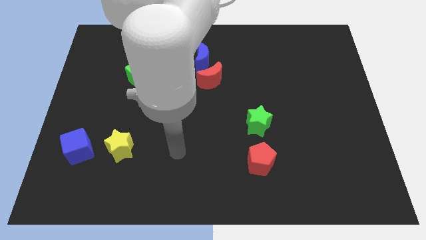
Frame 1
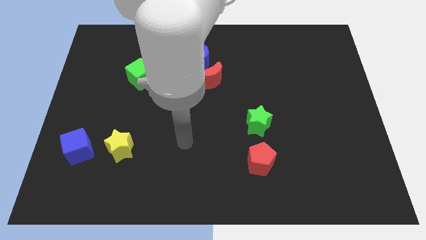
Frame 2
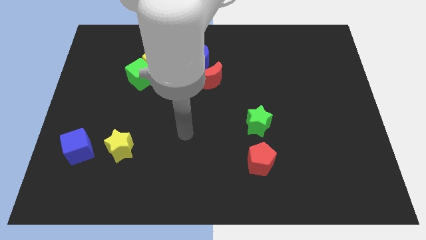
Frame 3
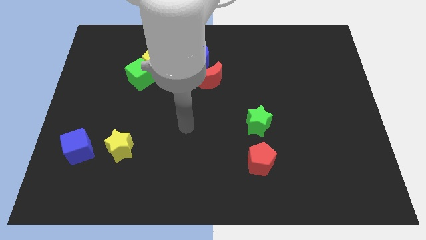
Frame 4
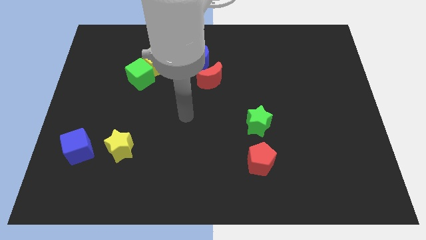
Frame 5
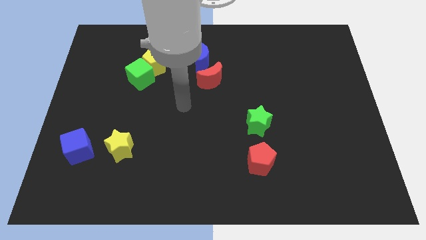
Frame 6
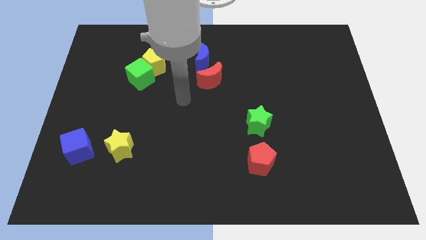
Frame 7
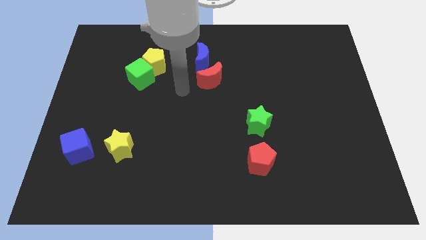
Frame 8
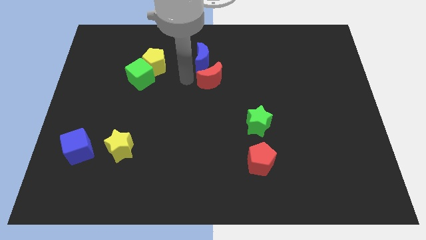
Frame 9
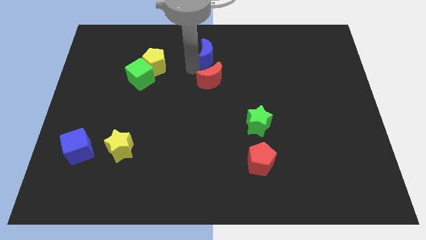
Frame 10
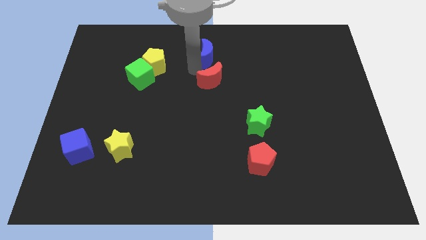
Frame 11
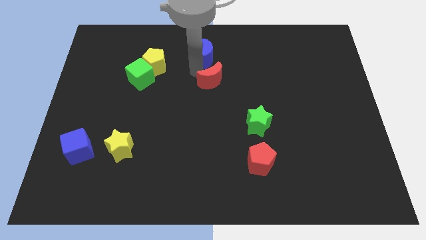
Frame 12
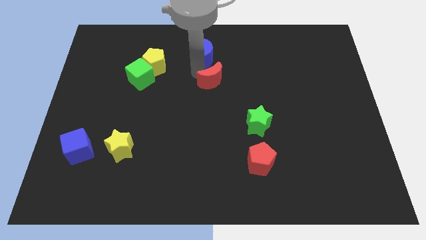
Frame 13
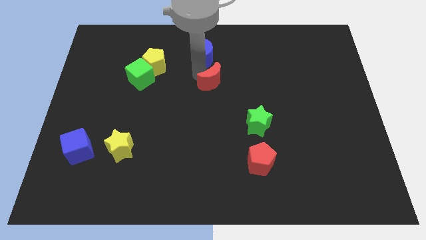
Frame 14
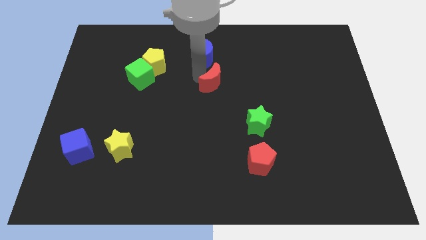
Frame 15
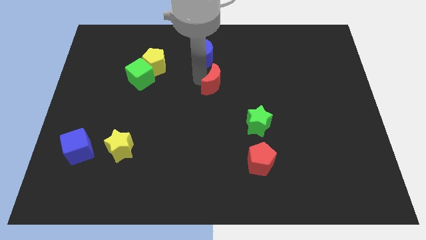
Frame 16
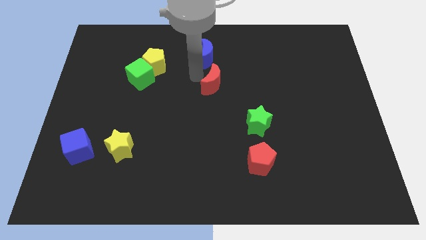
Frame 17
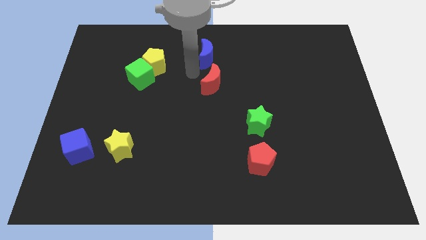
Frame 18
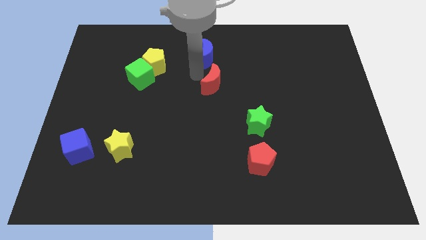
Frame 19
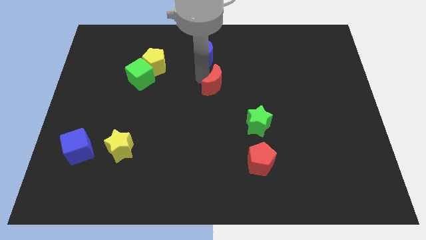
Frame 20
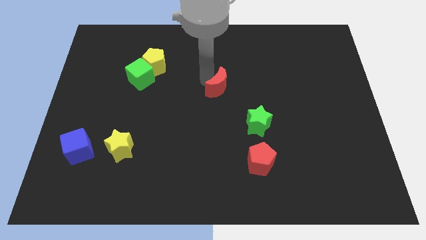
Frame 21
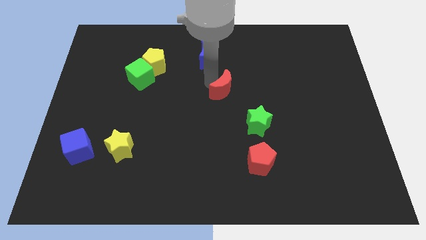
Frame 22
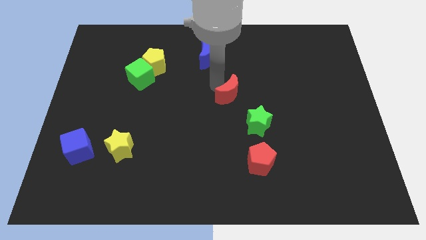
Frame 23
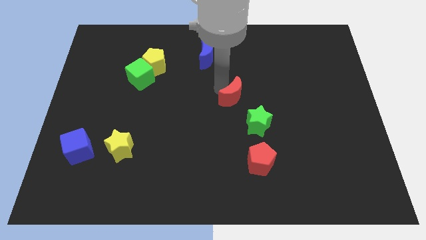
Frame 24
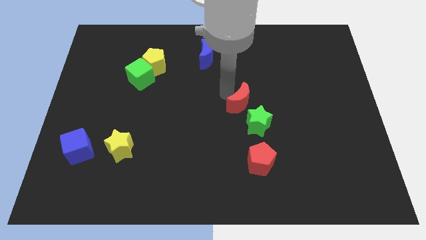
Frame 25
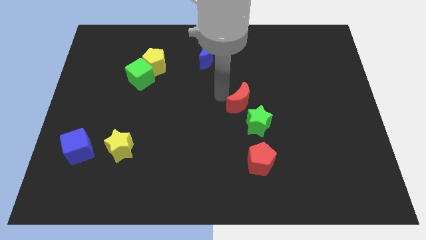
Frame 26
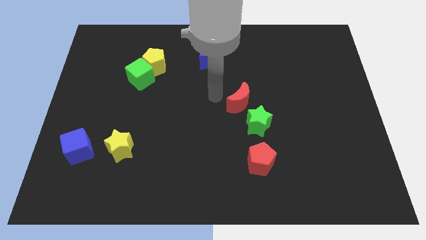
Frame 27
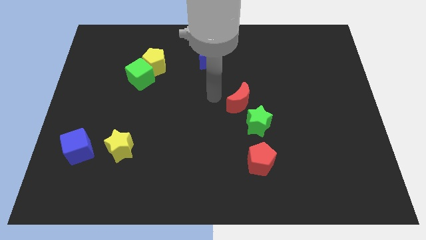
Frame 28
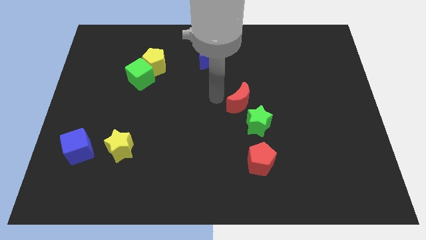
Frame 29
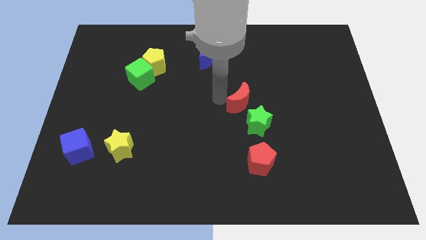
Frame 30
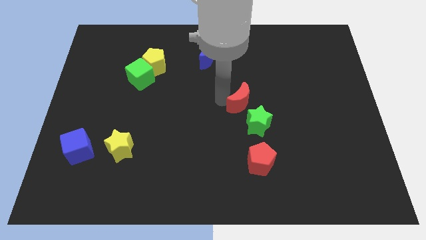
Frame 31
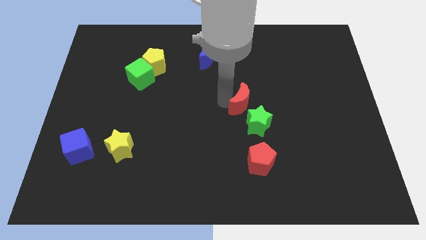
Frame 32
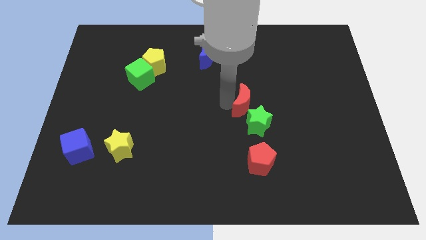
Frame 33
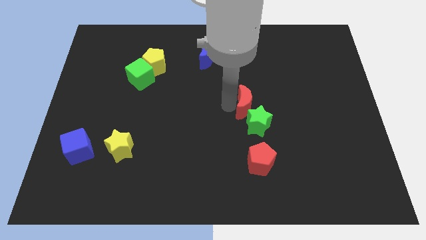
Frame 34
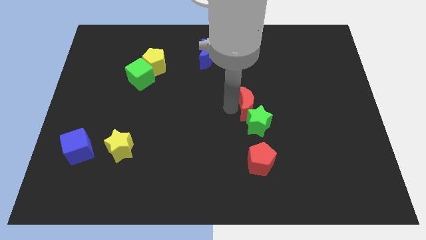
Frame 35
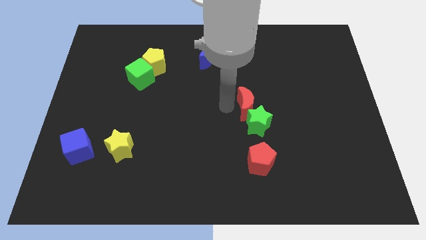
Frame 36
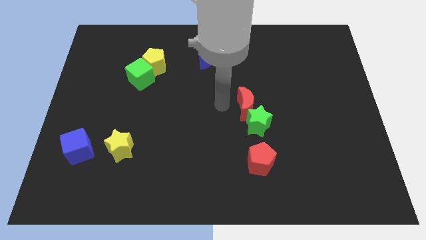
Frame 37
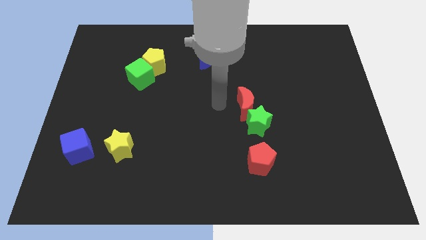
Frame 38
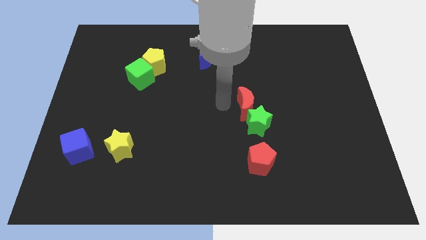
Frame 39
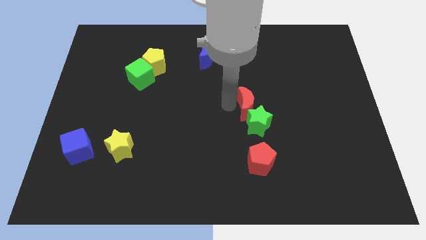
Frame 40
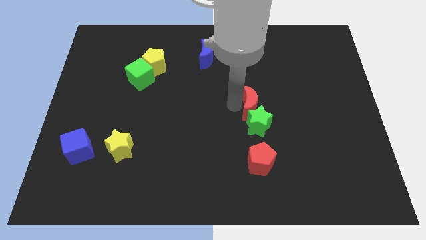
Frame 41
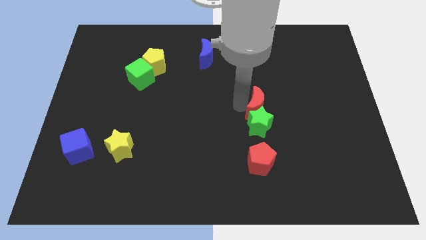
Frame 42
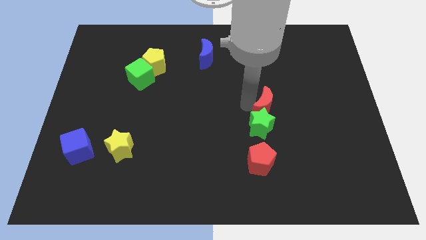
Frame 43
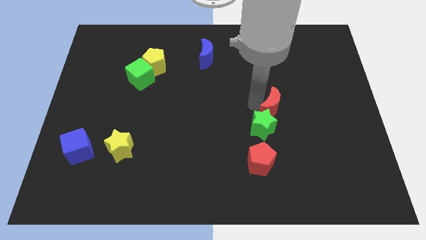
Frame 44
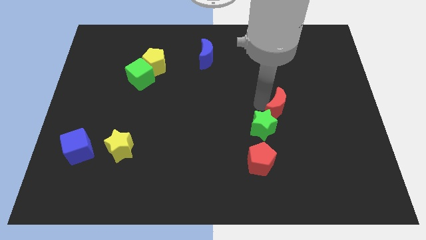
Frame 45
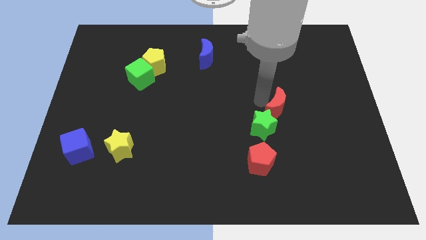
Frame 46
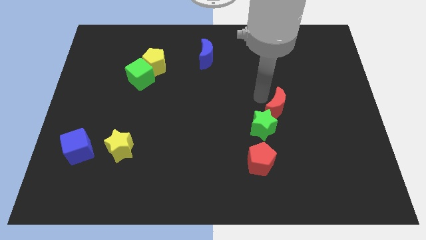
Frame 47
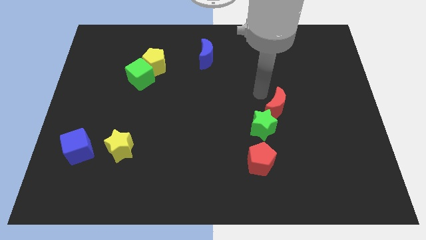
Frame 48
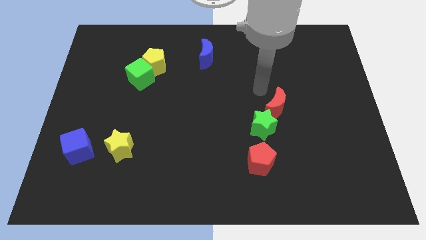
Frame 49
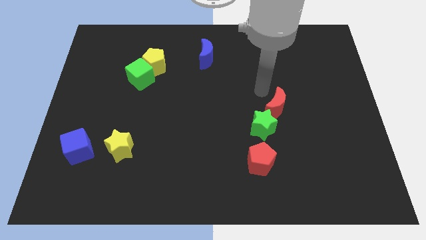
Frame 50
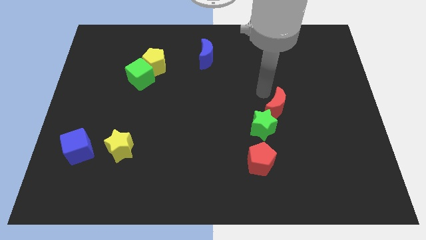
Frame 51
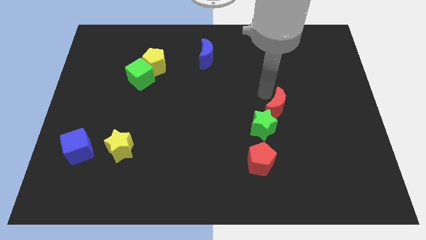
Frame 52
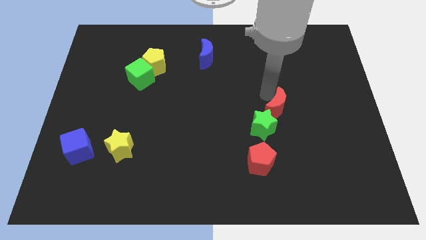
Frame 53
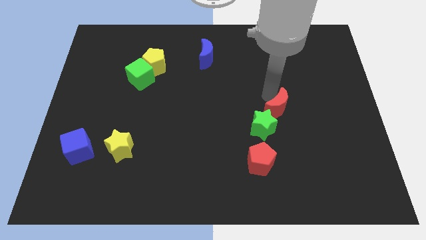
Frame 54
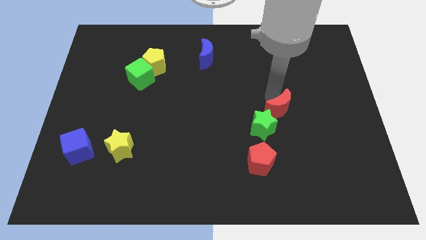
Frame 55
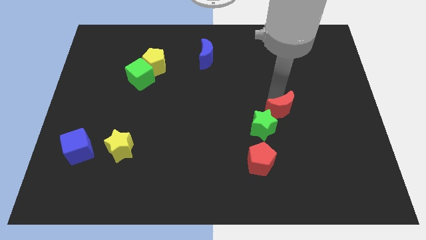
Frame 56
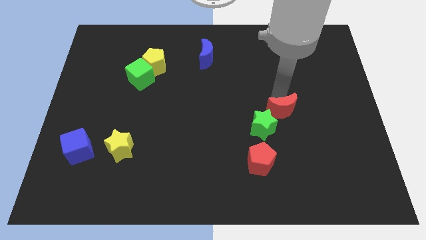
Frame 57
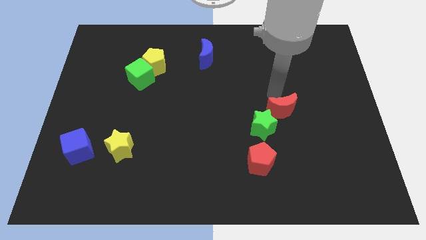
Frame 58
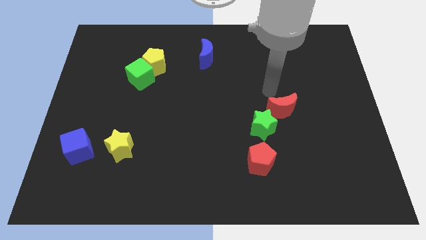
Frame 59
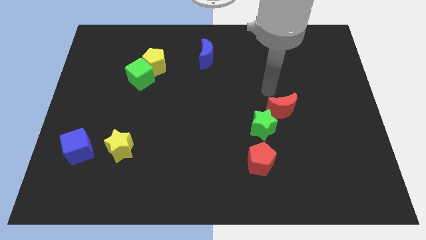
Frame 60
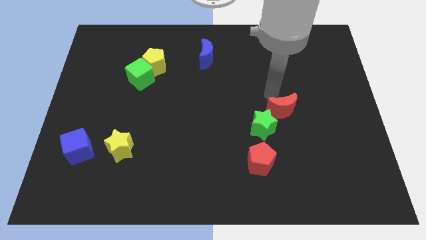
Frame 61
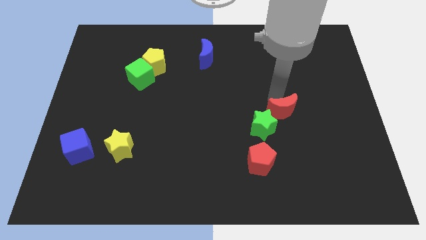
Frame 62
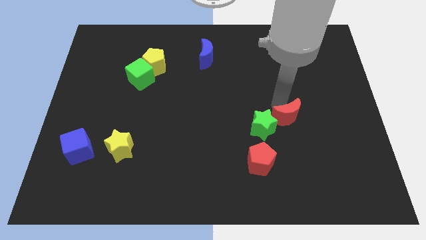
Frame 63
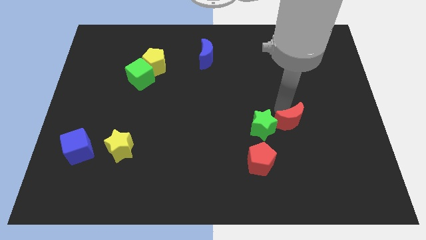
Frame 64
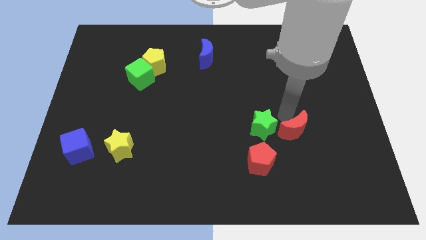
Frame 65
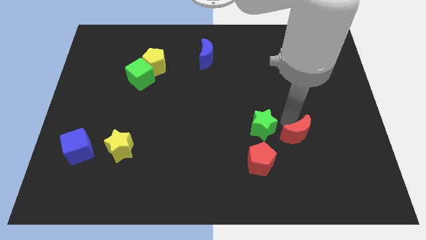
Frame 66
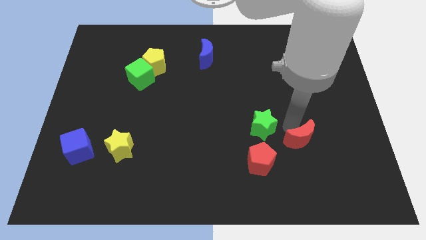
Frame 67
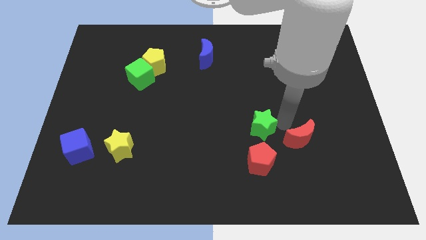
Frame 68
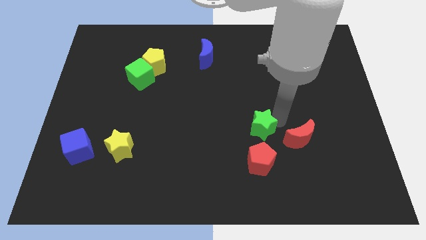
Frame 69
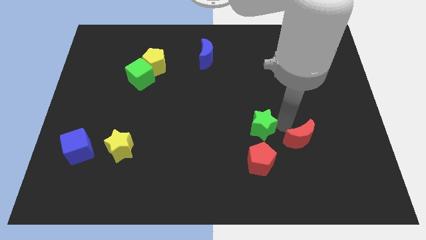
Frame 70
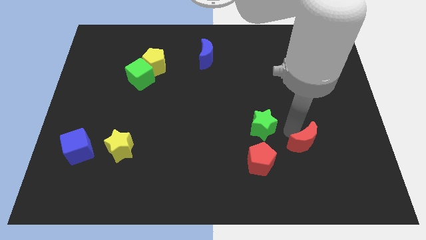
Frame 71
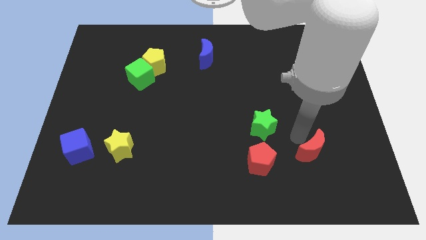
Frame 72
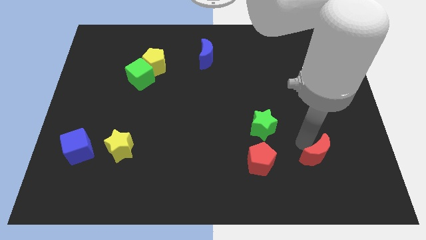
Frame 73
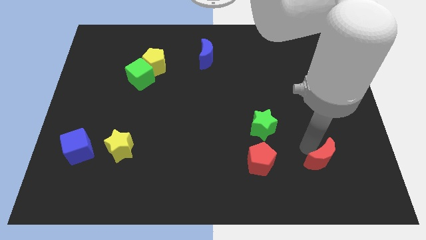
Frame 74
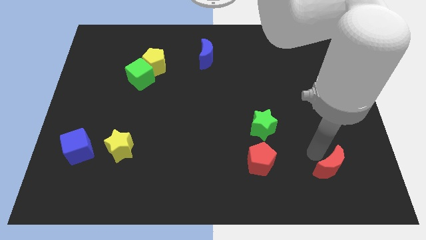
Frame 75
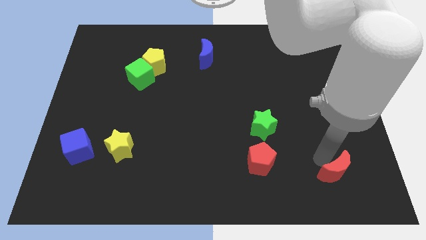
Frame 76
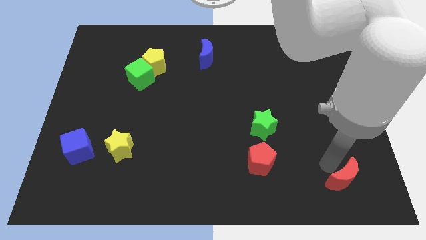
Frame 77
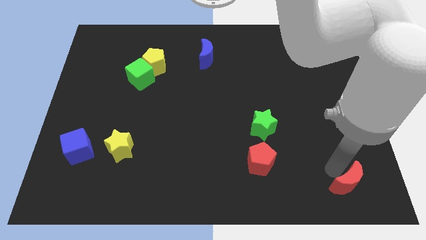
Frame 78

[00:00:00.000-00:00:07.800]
push the red moon to the bottom right
